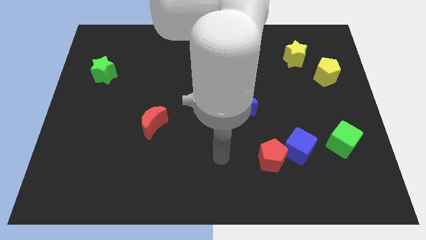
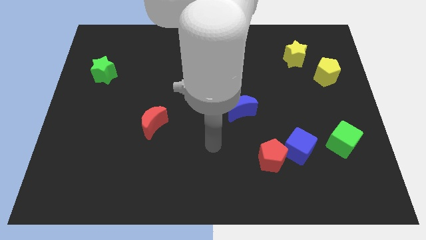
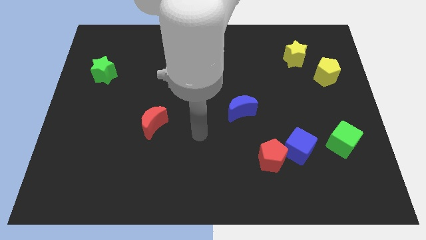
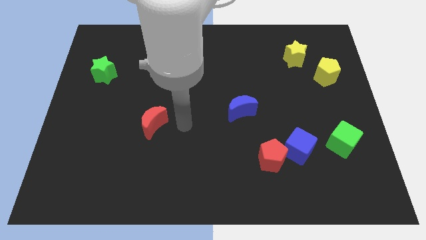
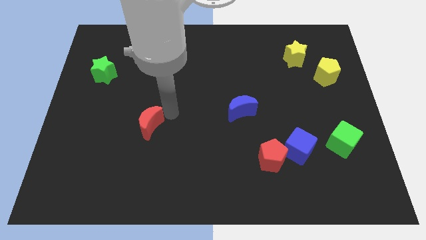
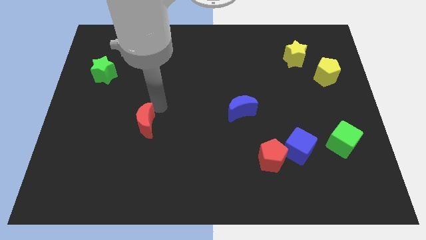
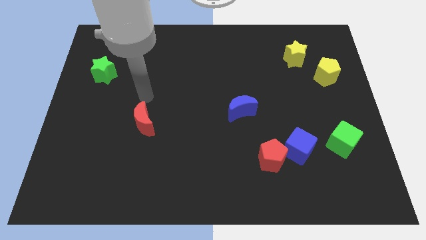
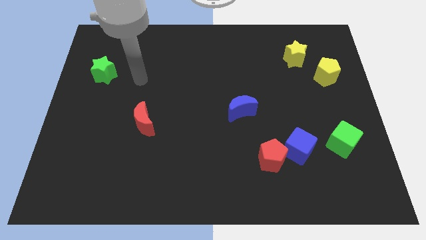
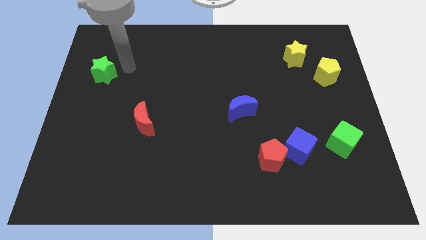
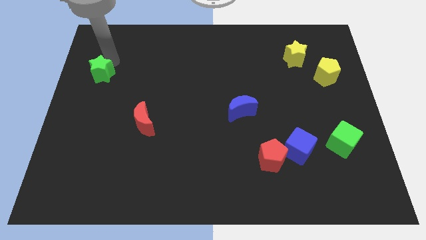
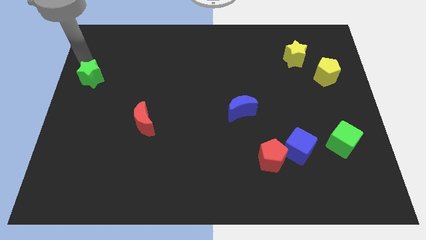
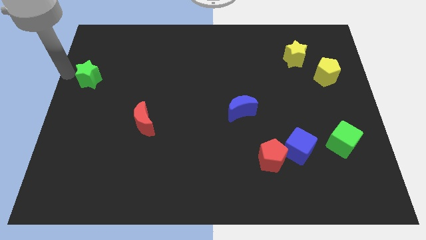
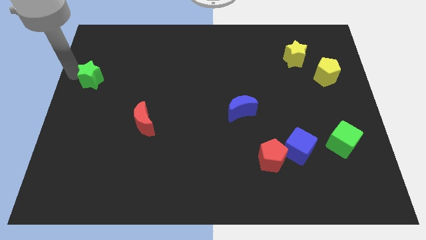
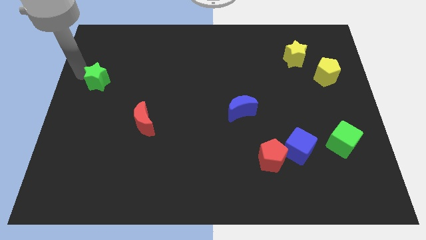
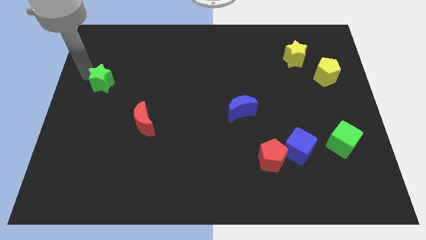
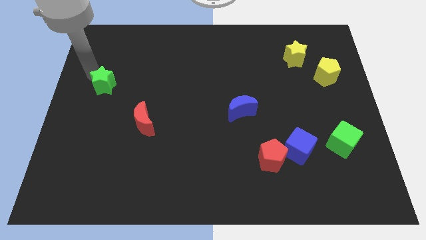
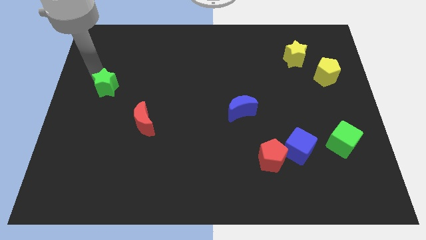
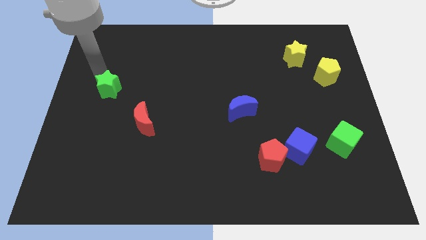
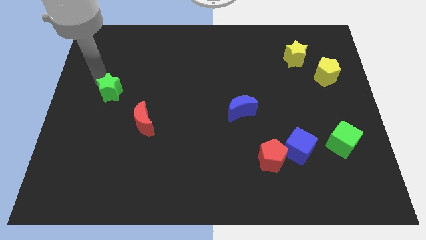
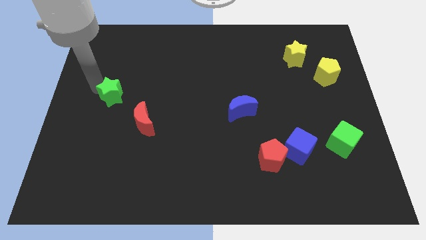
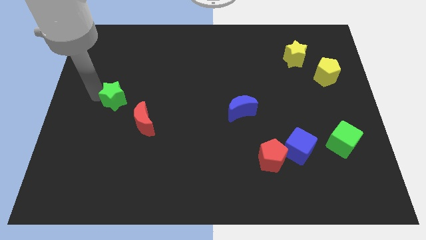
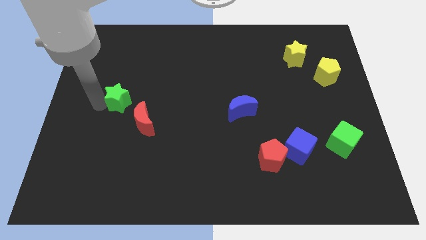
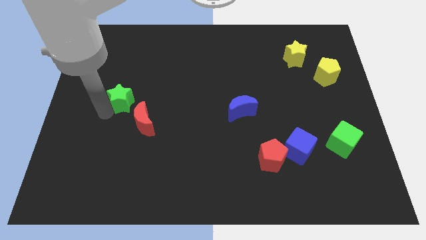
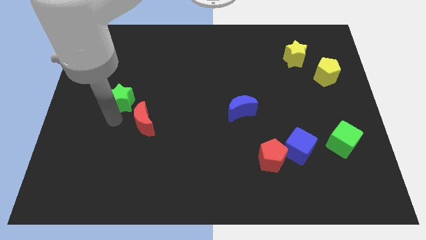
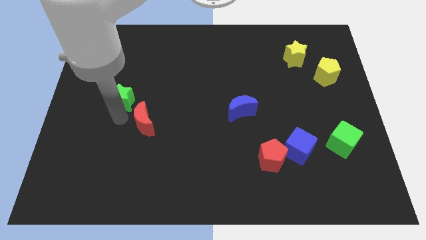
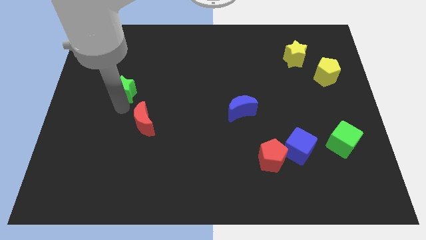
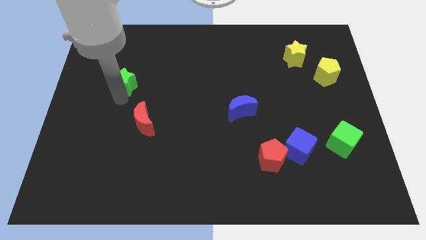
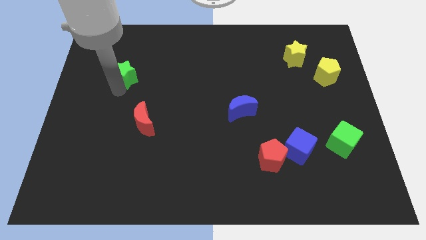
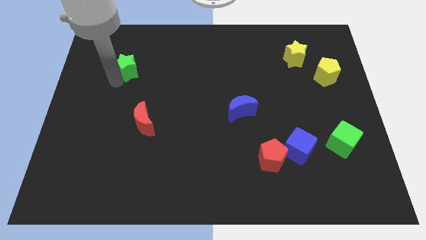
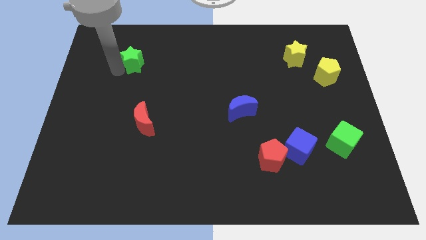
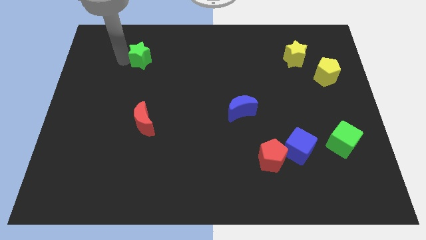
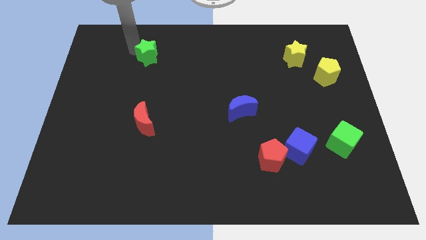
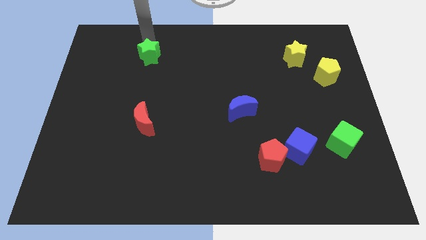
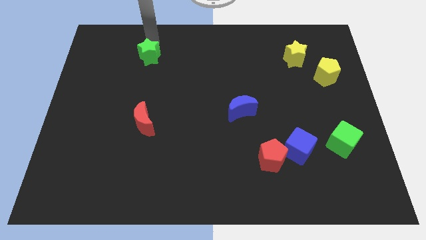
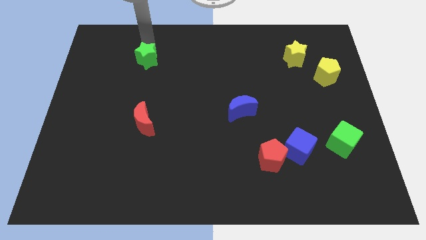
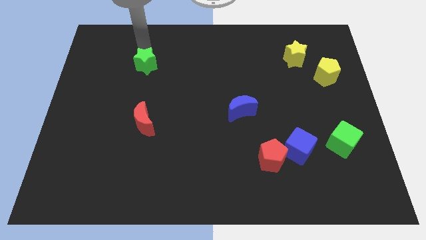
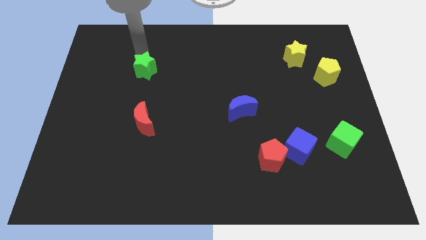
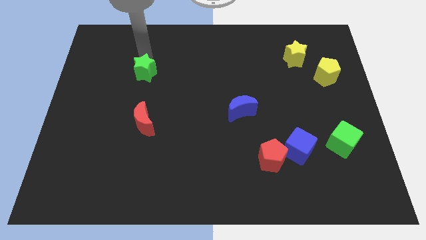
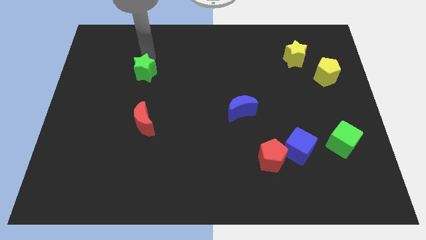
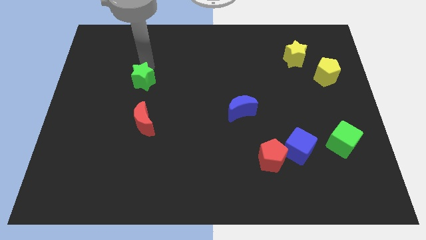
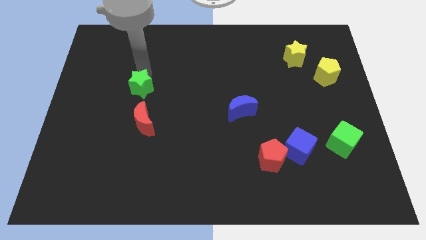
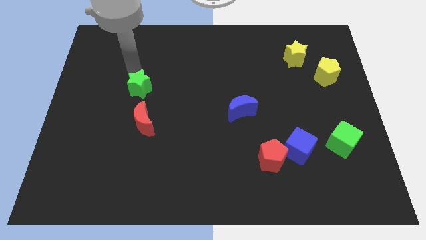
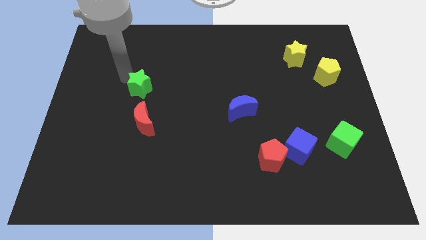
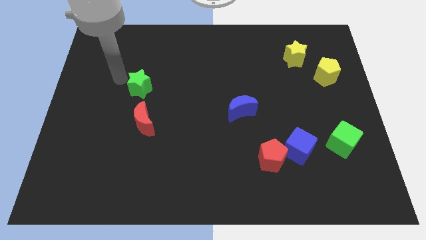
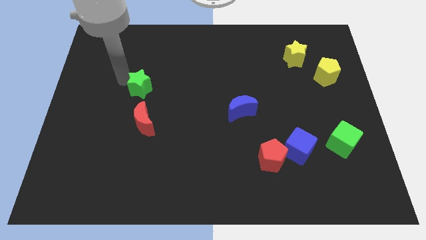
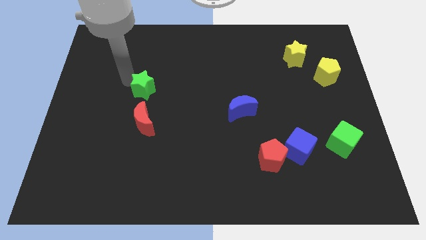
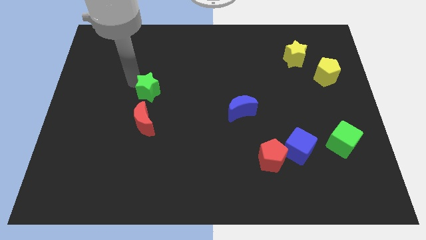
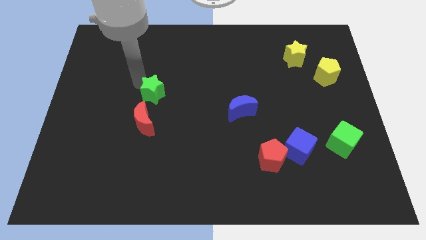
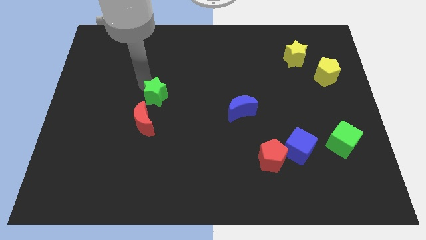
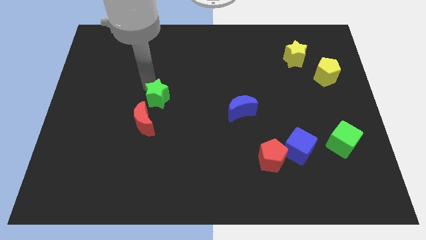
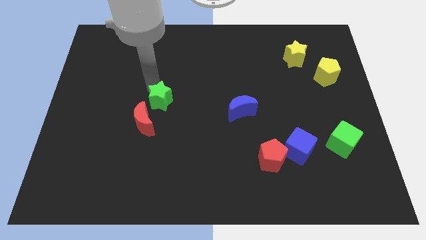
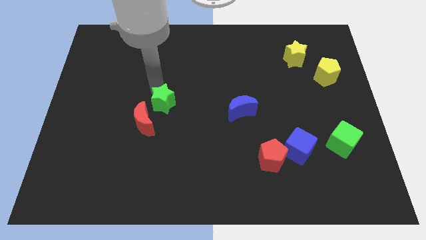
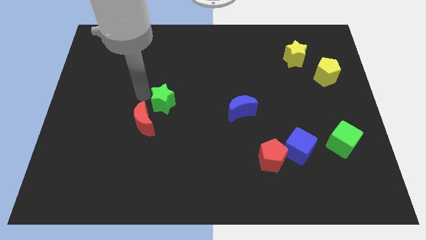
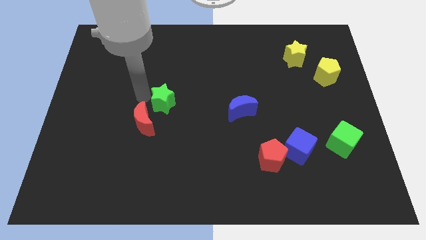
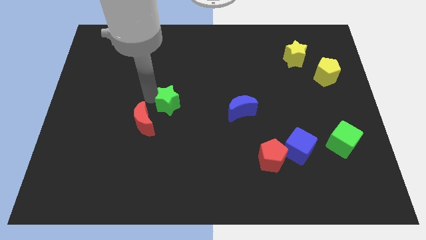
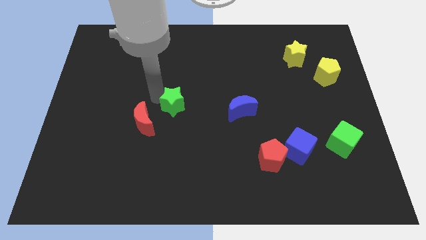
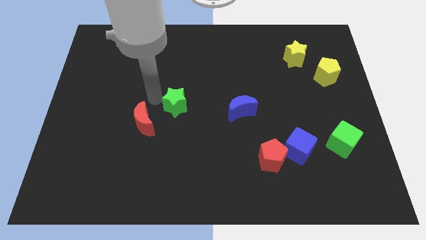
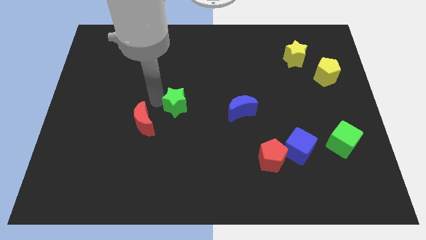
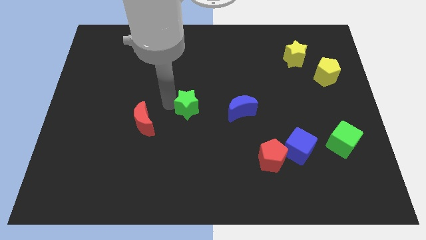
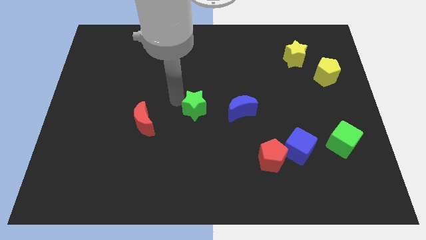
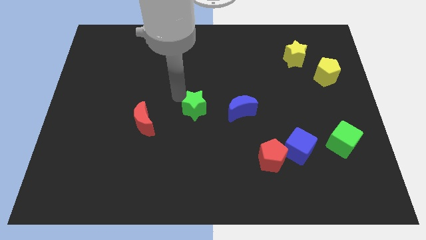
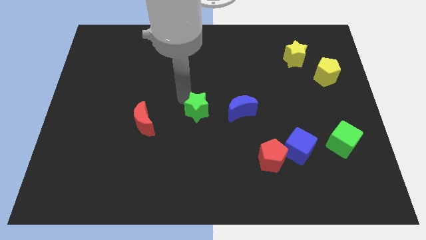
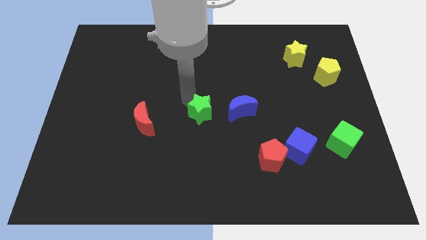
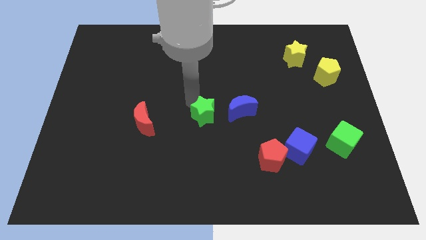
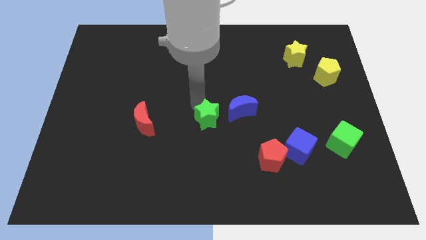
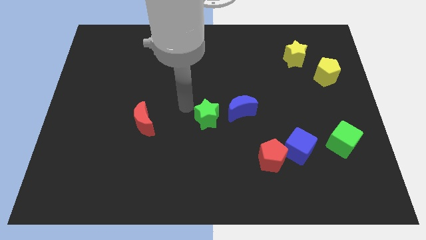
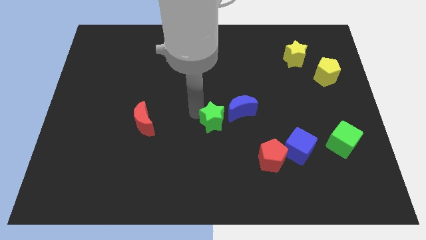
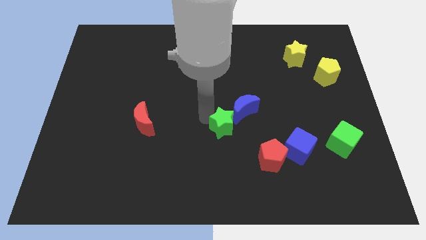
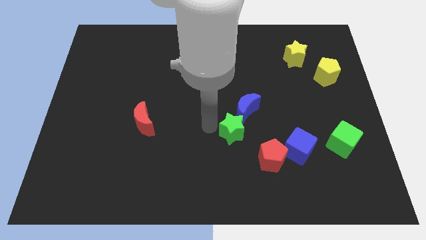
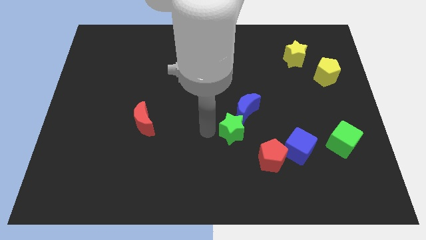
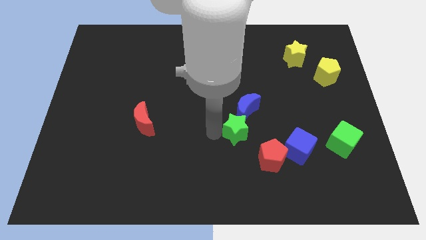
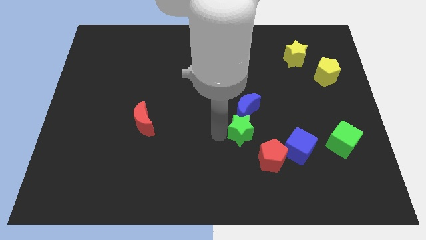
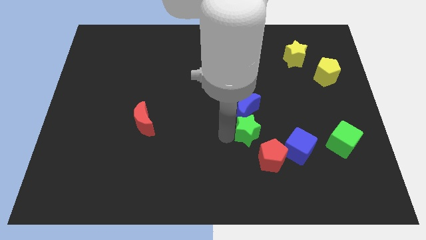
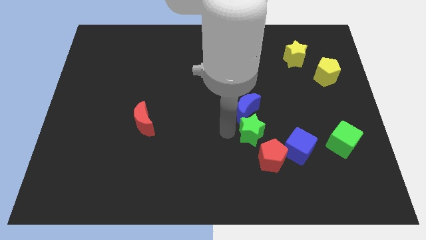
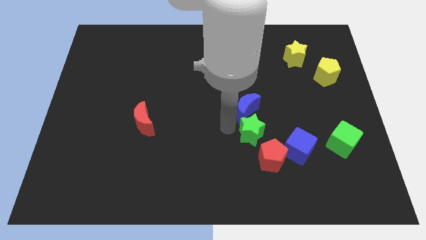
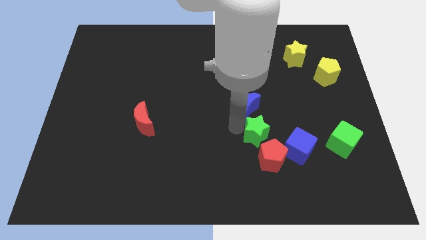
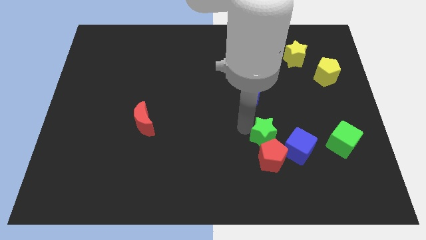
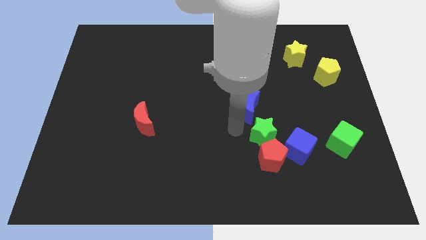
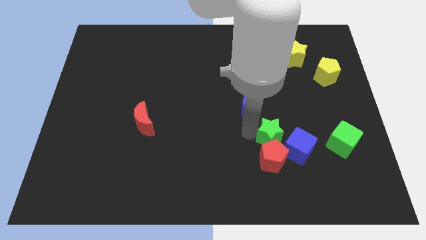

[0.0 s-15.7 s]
put the green star to the left side of the green cube
